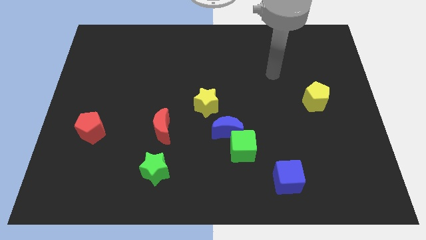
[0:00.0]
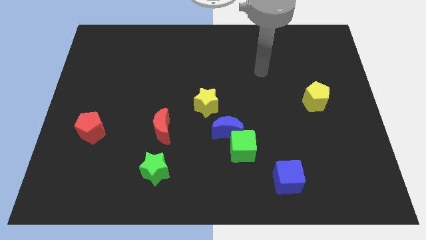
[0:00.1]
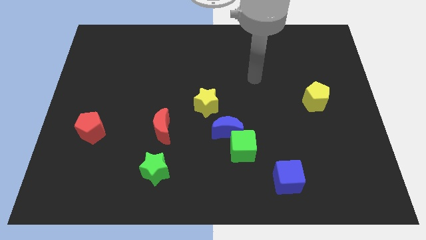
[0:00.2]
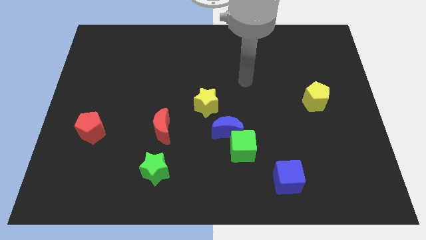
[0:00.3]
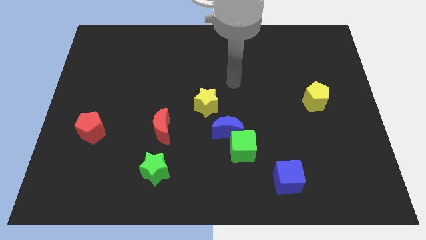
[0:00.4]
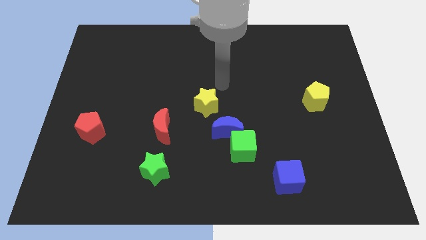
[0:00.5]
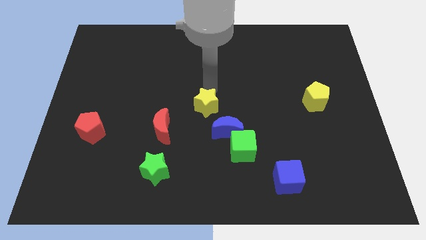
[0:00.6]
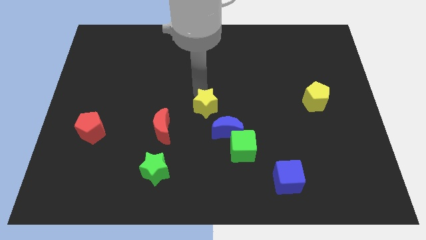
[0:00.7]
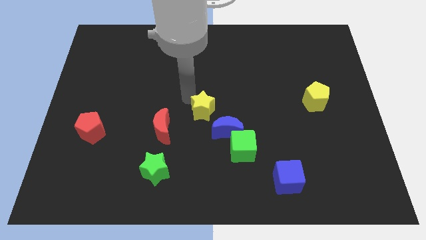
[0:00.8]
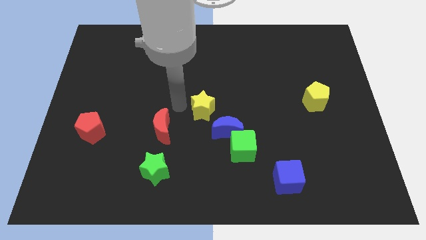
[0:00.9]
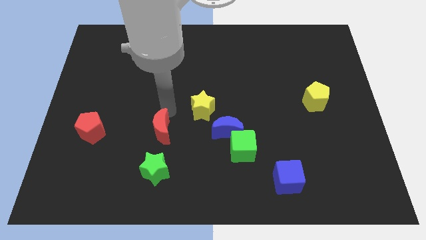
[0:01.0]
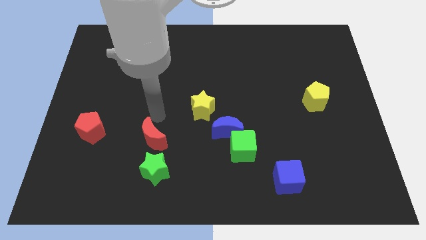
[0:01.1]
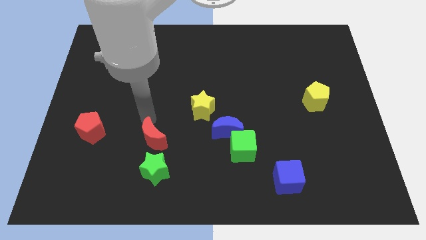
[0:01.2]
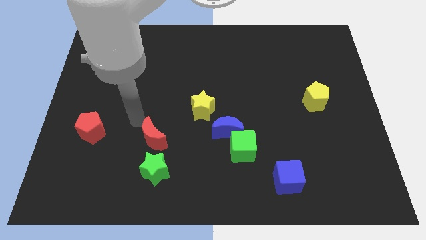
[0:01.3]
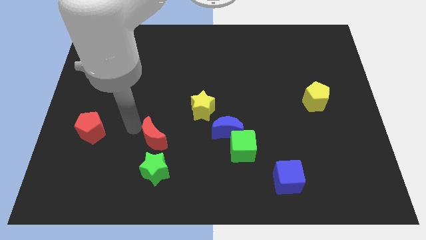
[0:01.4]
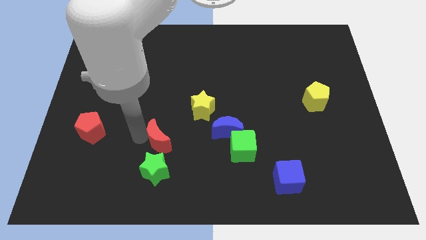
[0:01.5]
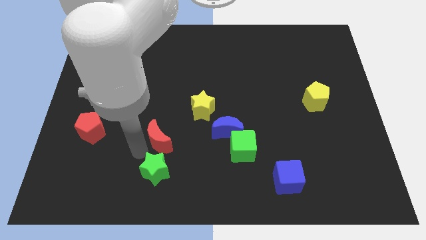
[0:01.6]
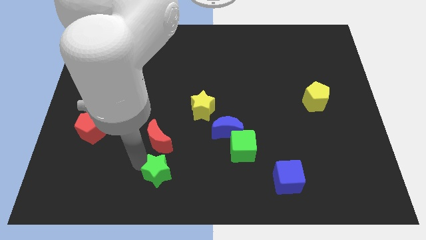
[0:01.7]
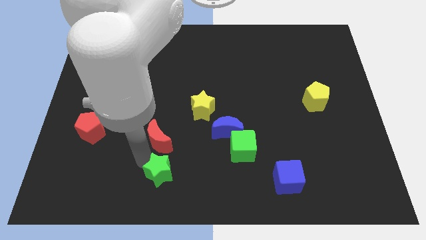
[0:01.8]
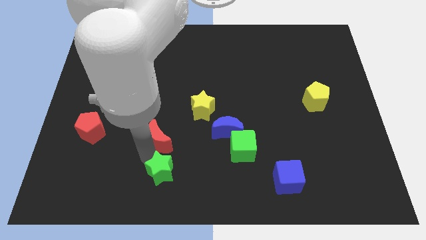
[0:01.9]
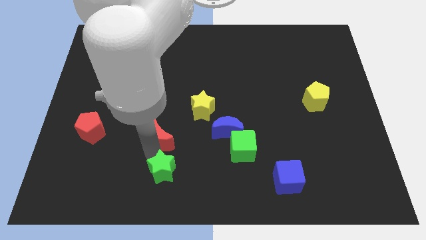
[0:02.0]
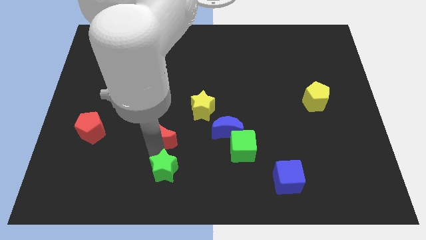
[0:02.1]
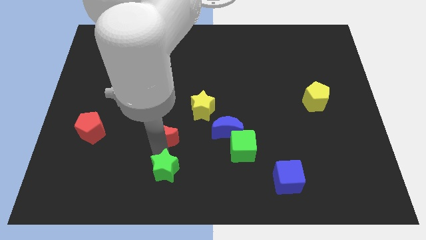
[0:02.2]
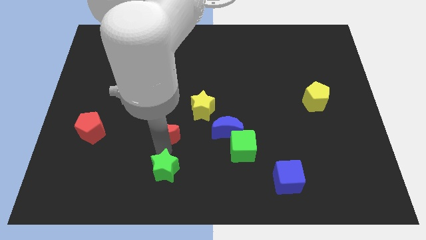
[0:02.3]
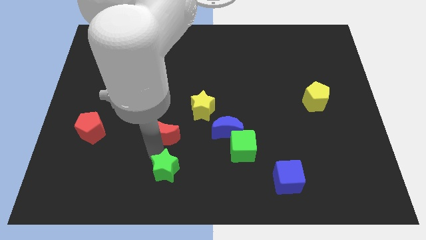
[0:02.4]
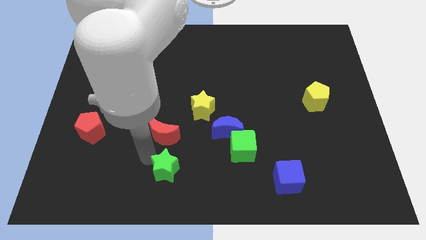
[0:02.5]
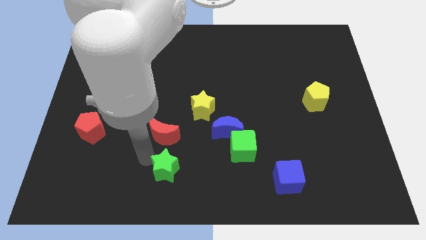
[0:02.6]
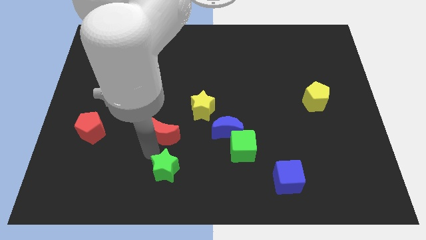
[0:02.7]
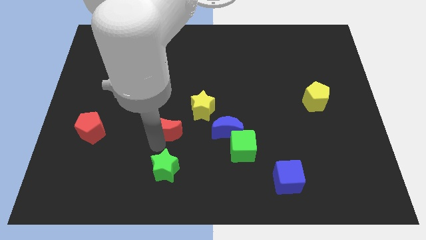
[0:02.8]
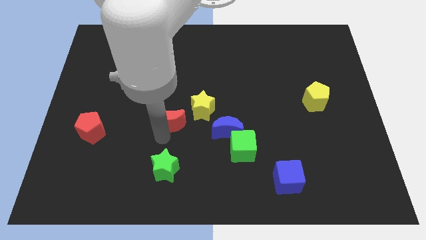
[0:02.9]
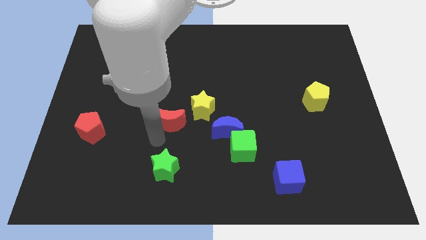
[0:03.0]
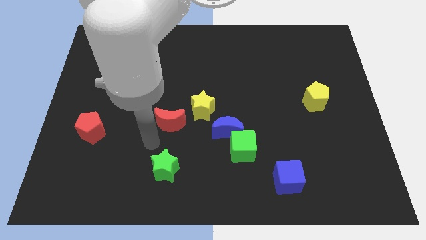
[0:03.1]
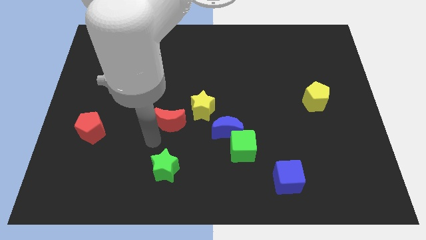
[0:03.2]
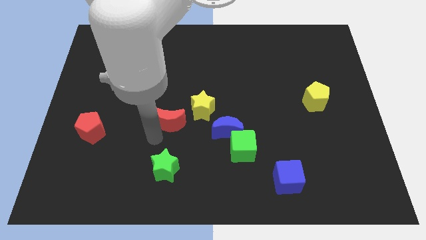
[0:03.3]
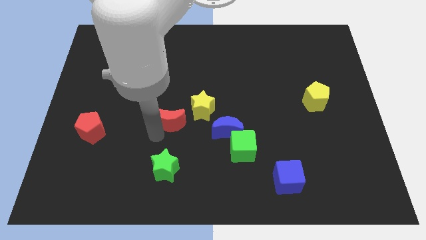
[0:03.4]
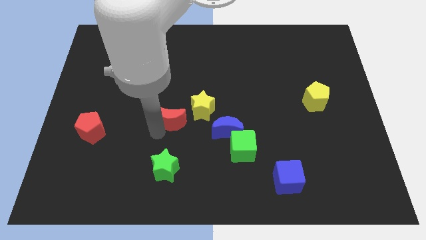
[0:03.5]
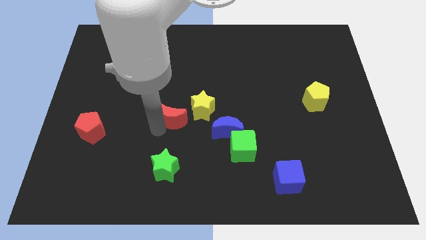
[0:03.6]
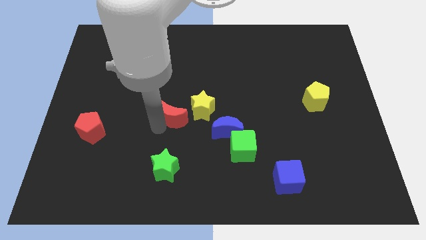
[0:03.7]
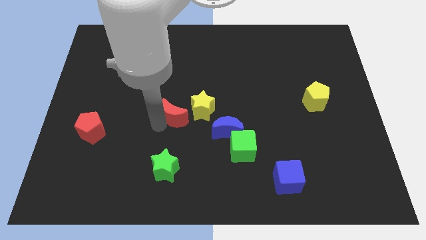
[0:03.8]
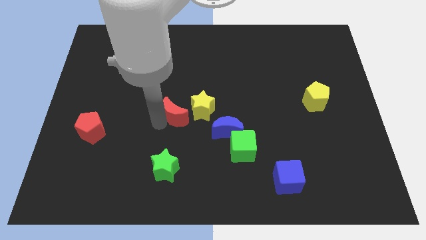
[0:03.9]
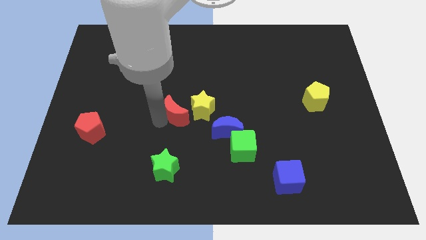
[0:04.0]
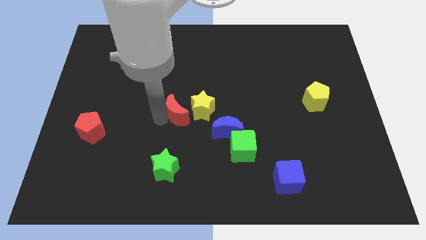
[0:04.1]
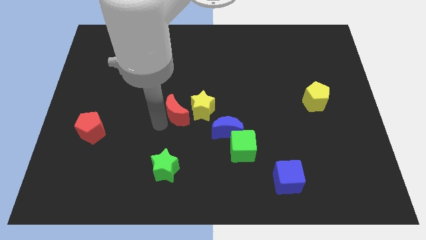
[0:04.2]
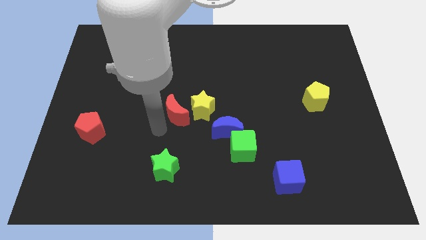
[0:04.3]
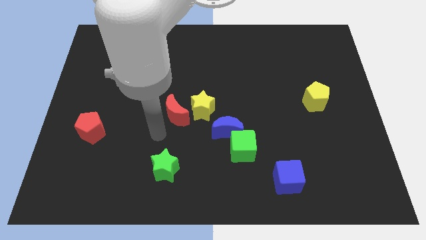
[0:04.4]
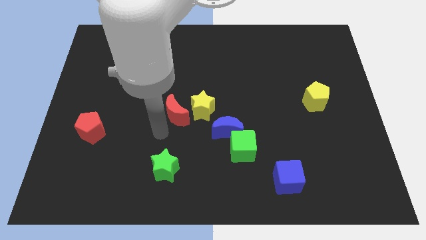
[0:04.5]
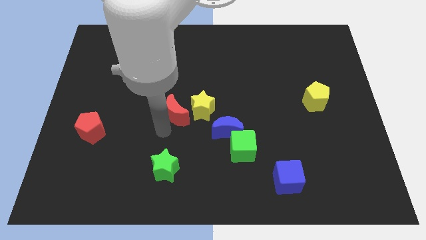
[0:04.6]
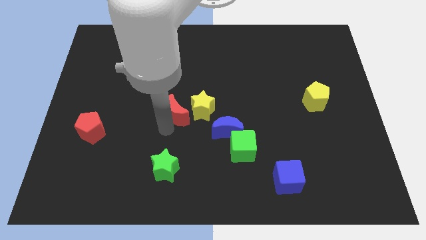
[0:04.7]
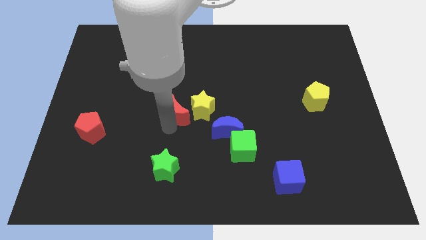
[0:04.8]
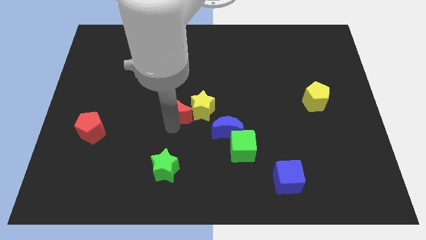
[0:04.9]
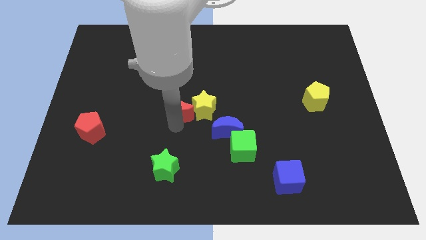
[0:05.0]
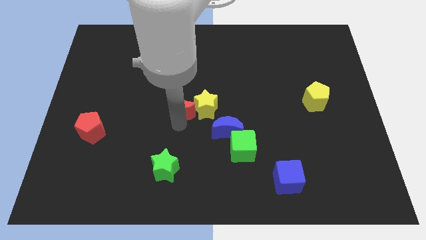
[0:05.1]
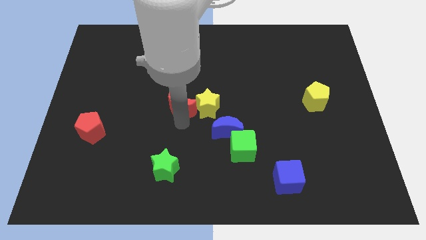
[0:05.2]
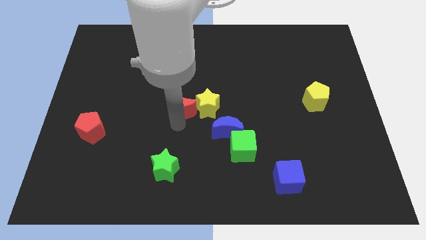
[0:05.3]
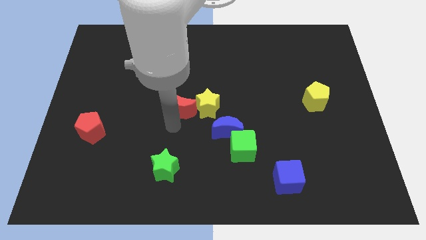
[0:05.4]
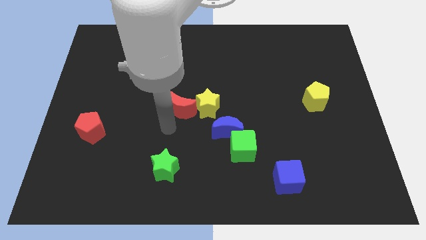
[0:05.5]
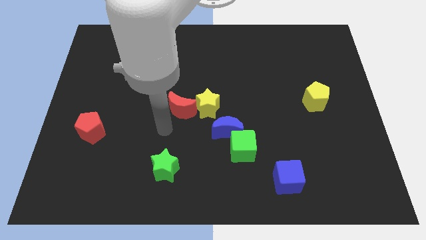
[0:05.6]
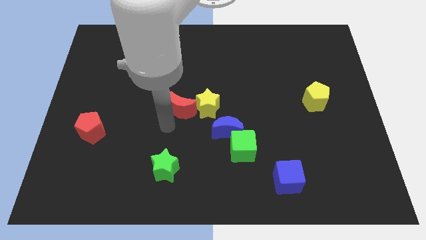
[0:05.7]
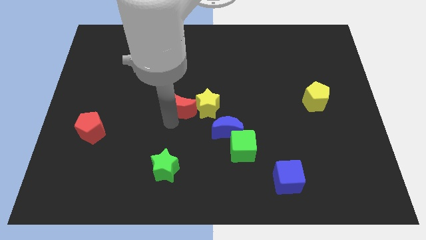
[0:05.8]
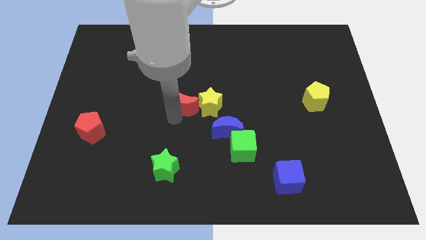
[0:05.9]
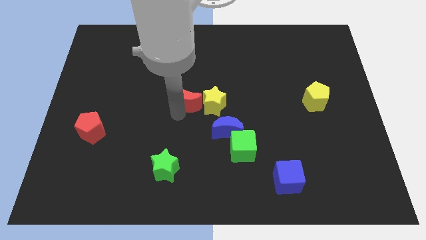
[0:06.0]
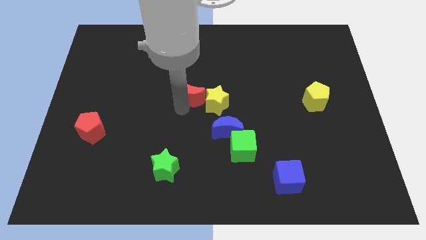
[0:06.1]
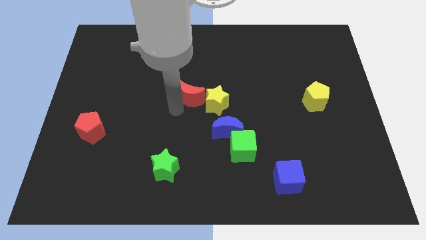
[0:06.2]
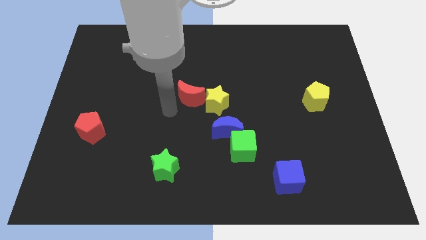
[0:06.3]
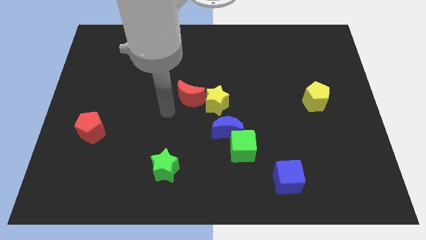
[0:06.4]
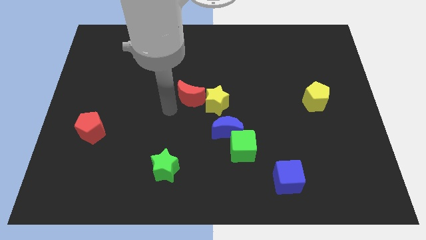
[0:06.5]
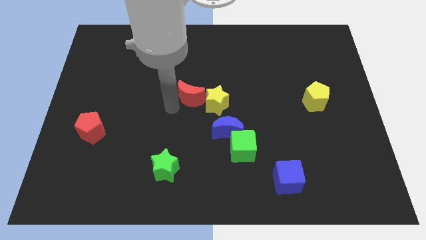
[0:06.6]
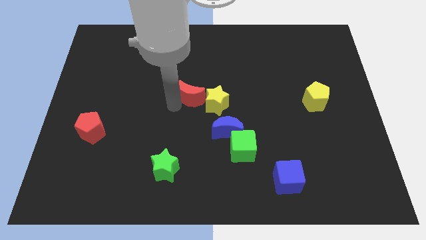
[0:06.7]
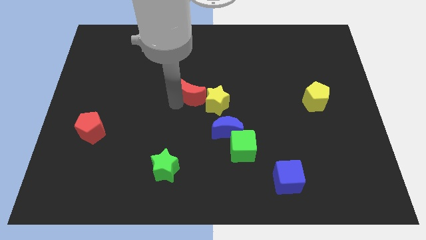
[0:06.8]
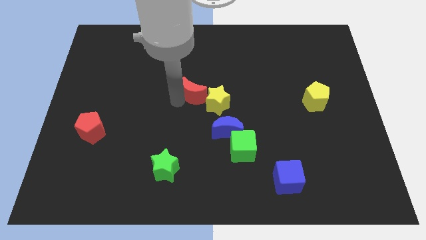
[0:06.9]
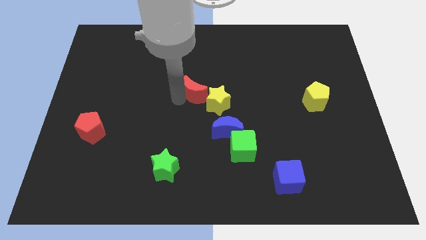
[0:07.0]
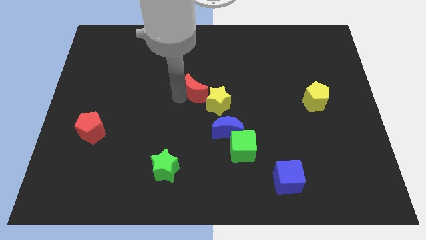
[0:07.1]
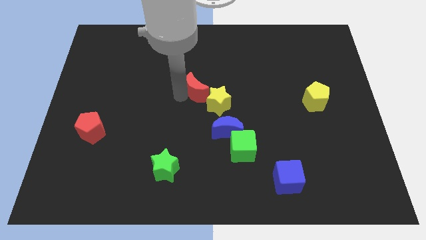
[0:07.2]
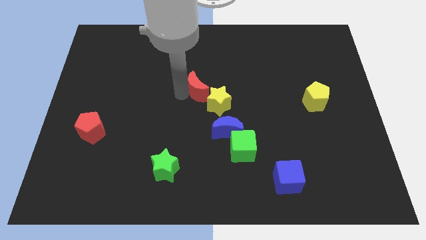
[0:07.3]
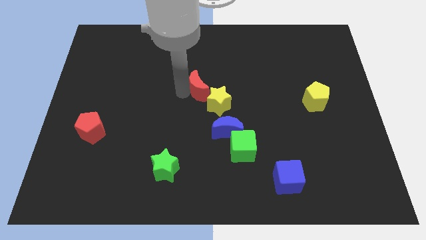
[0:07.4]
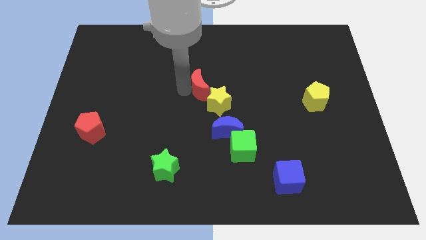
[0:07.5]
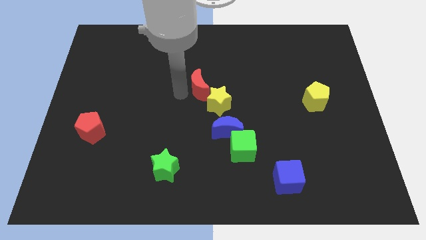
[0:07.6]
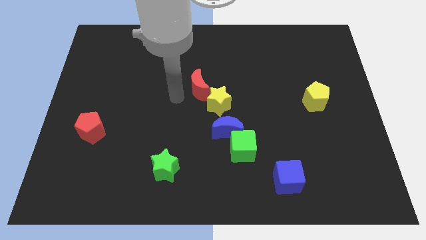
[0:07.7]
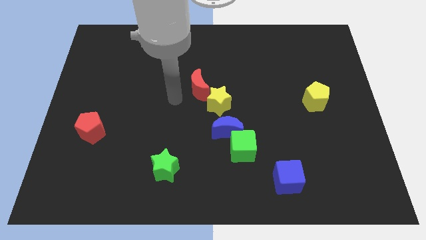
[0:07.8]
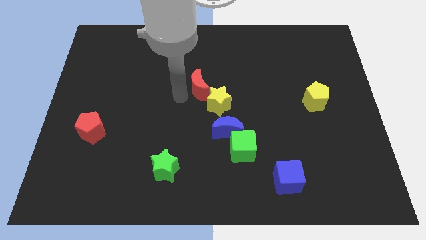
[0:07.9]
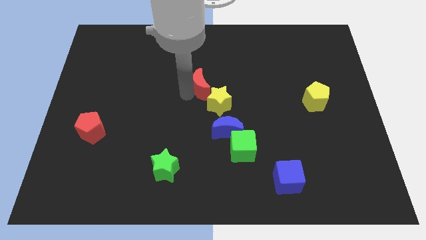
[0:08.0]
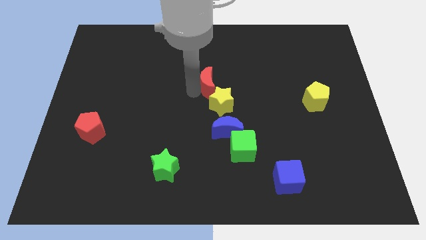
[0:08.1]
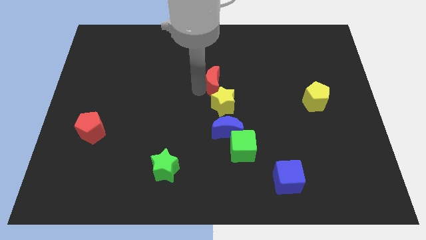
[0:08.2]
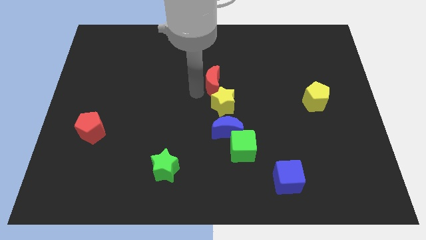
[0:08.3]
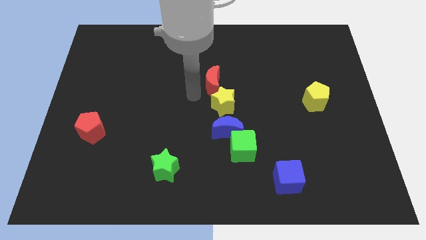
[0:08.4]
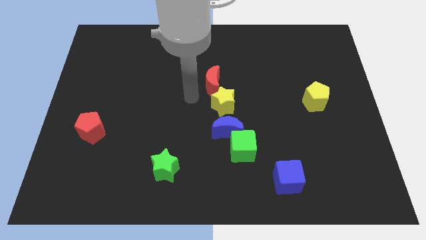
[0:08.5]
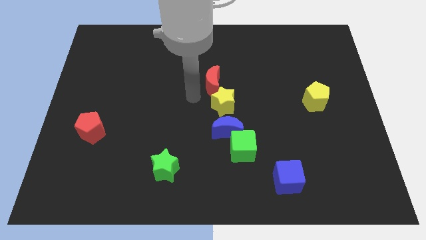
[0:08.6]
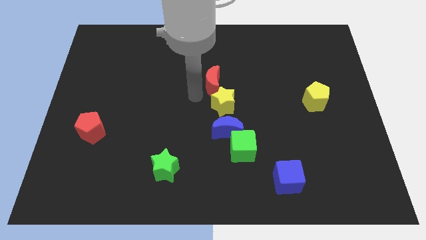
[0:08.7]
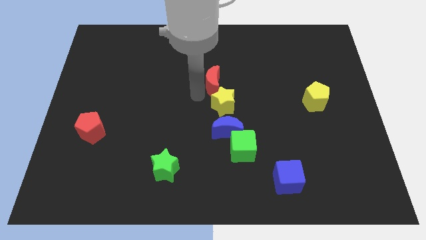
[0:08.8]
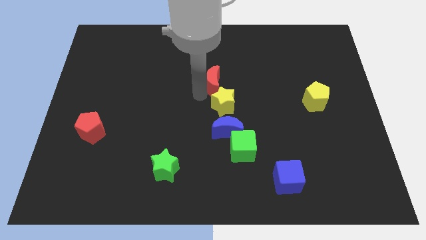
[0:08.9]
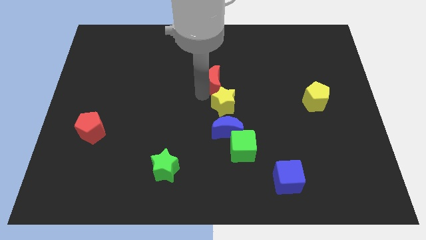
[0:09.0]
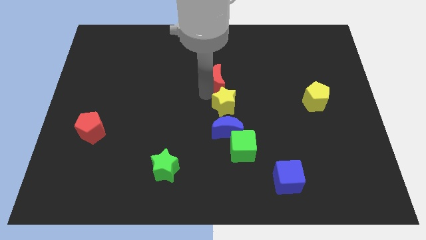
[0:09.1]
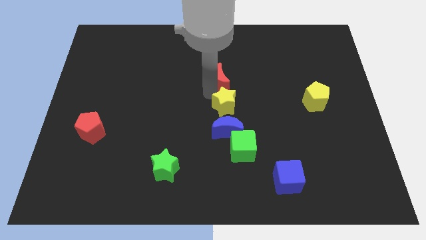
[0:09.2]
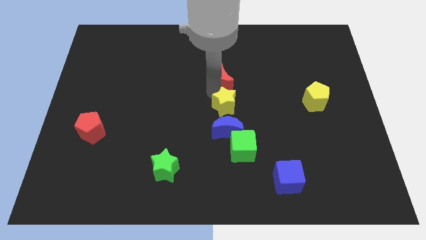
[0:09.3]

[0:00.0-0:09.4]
push the red moon diagonally upwards and right
